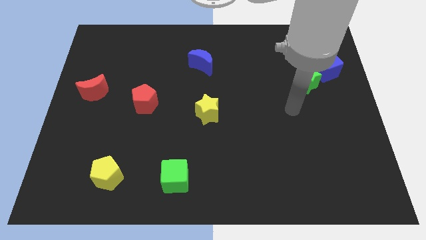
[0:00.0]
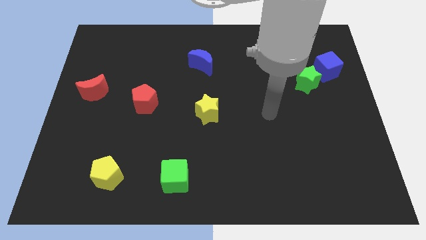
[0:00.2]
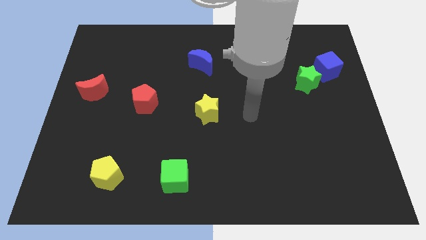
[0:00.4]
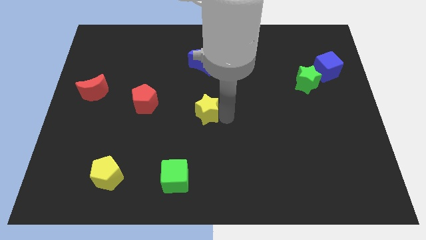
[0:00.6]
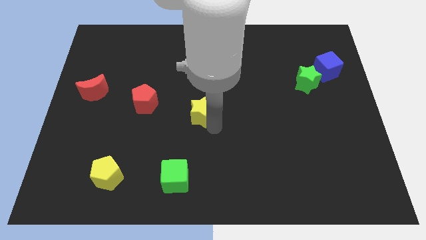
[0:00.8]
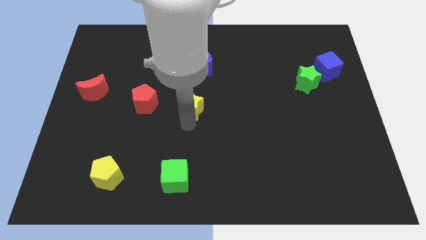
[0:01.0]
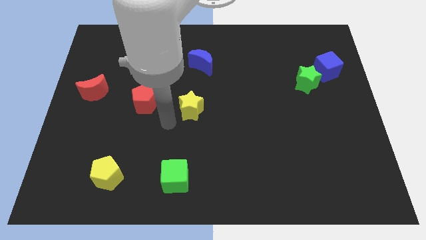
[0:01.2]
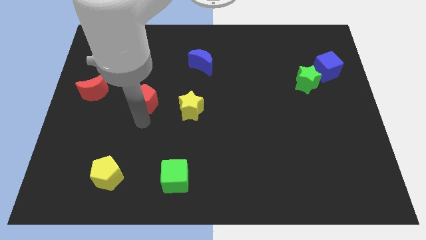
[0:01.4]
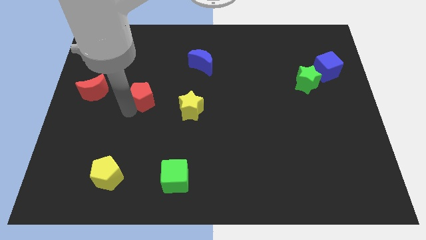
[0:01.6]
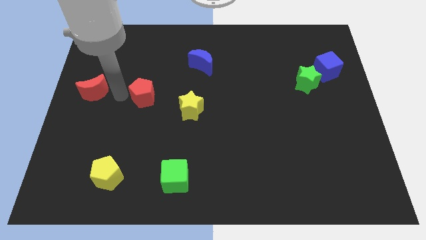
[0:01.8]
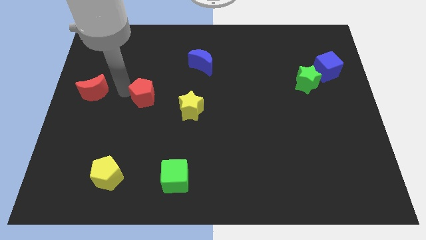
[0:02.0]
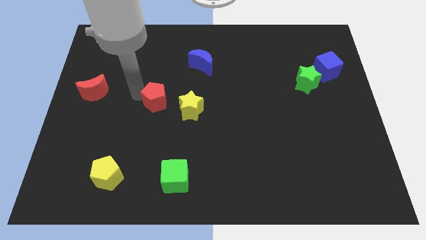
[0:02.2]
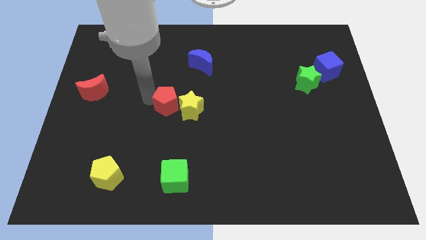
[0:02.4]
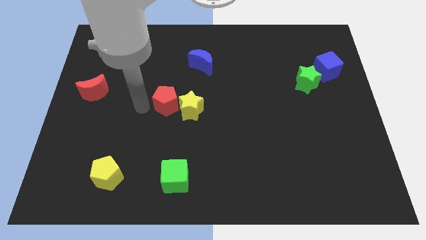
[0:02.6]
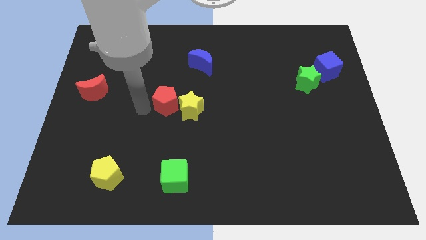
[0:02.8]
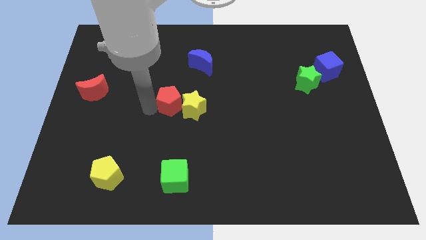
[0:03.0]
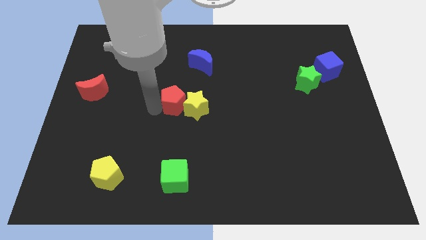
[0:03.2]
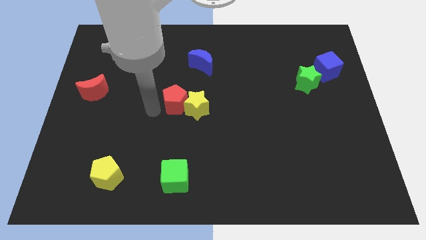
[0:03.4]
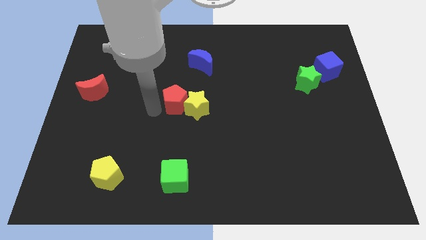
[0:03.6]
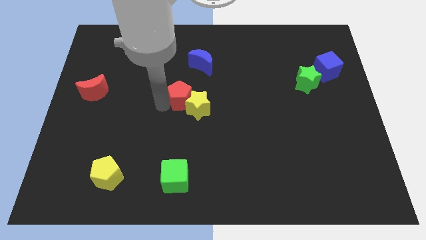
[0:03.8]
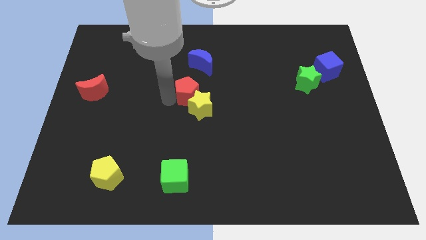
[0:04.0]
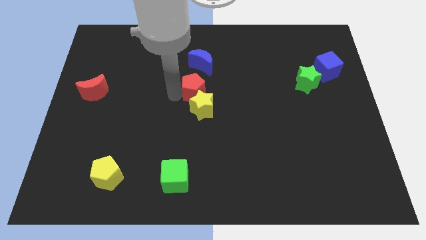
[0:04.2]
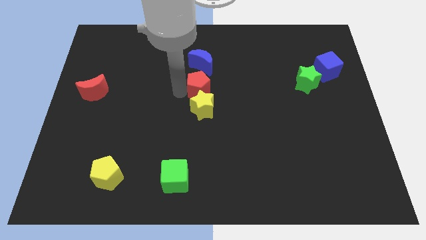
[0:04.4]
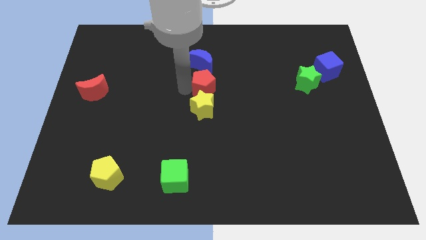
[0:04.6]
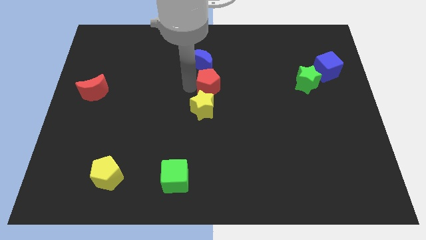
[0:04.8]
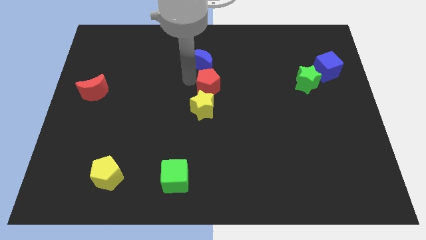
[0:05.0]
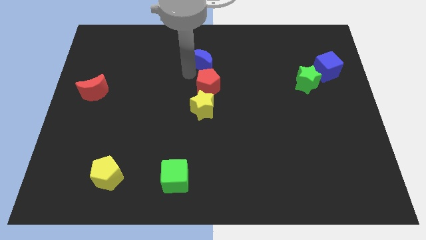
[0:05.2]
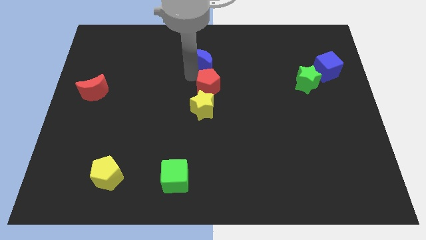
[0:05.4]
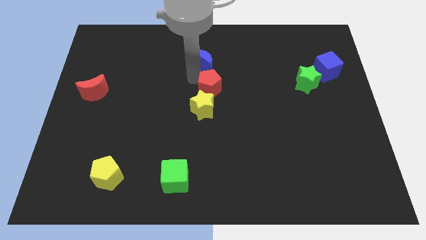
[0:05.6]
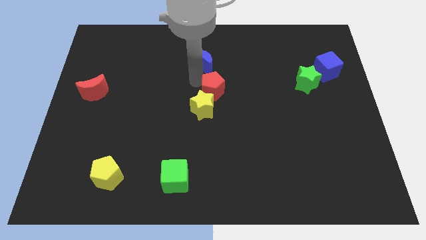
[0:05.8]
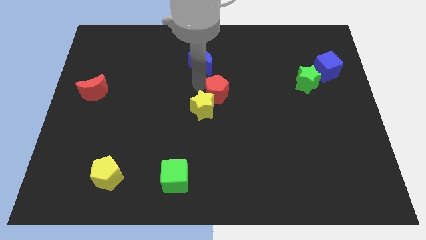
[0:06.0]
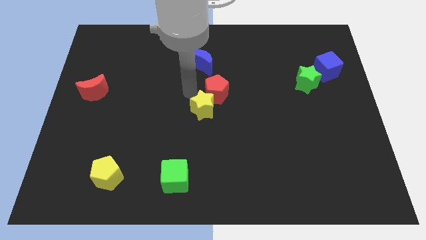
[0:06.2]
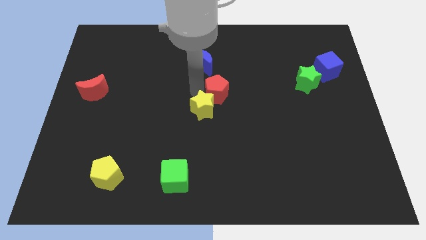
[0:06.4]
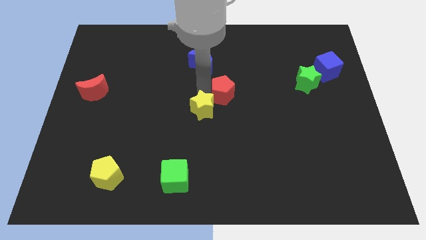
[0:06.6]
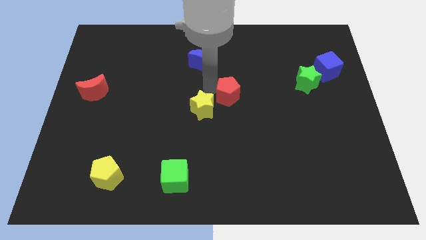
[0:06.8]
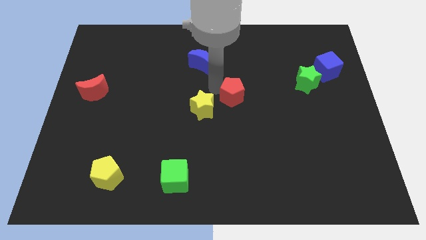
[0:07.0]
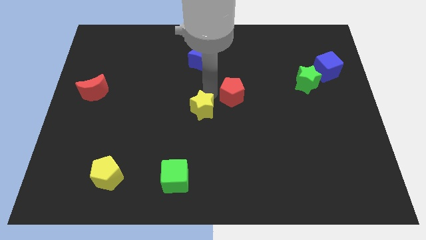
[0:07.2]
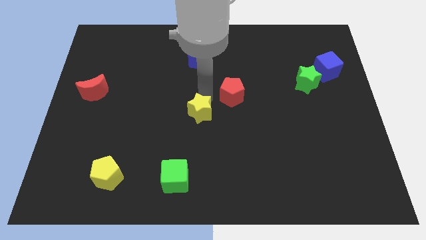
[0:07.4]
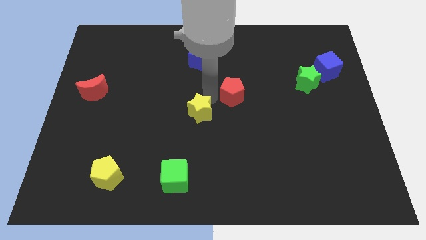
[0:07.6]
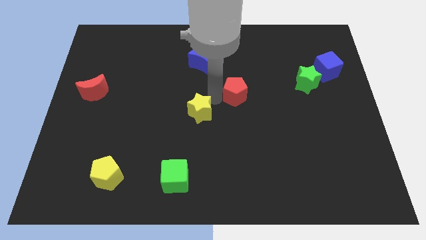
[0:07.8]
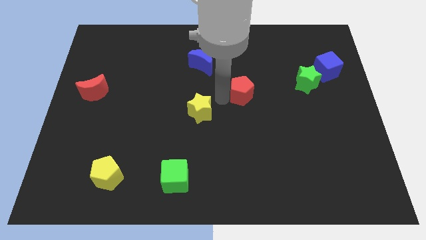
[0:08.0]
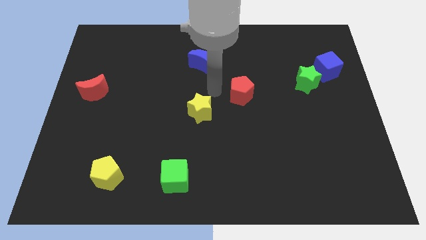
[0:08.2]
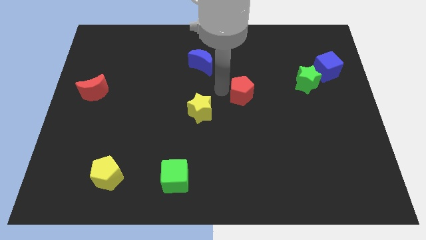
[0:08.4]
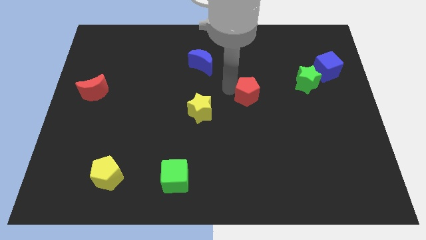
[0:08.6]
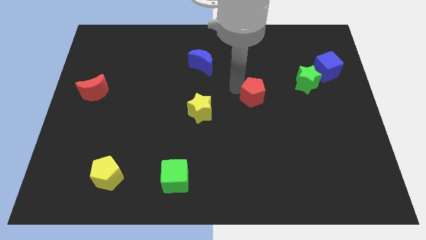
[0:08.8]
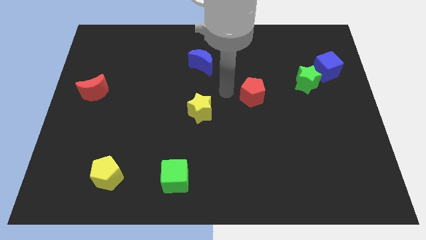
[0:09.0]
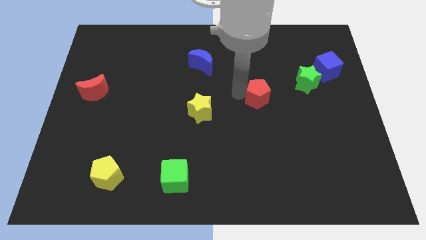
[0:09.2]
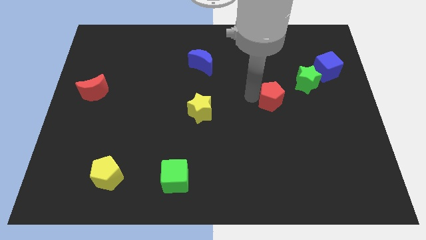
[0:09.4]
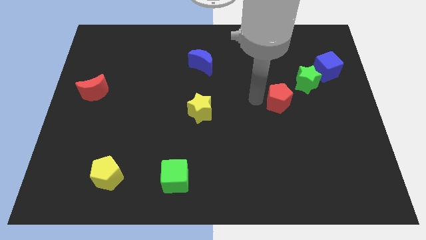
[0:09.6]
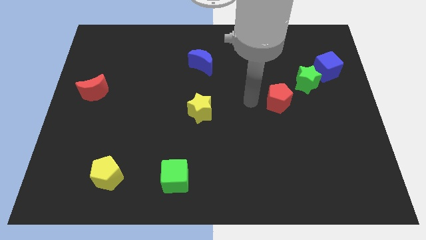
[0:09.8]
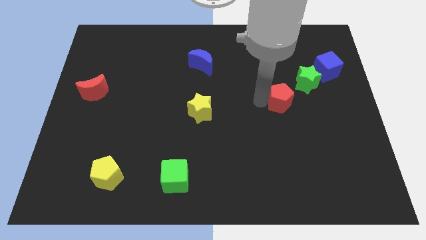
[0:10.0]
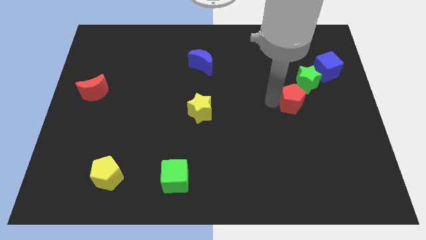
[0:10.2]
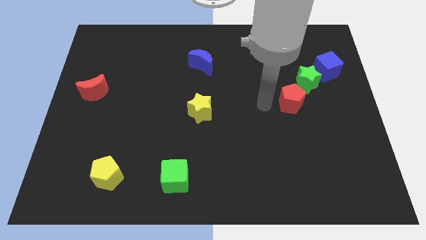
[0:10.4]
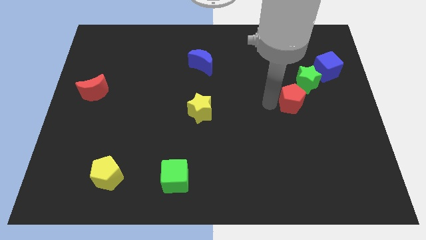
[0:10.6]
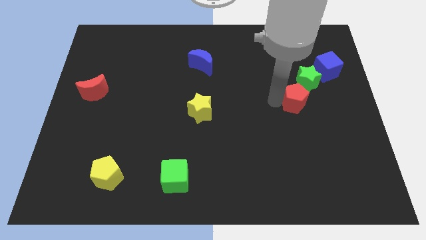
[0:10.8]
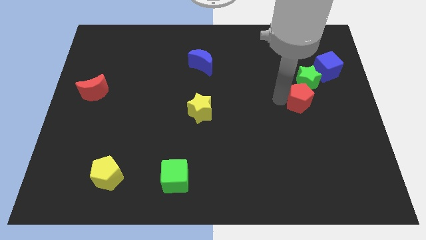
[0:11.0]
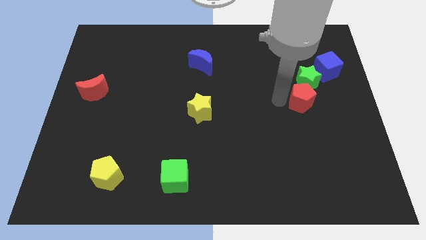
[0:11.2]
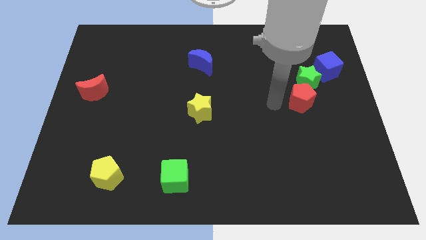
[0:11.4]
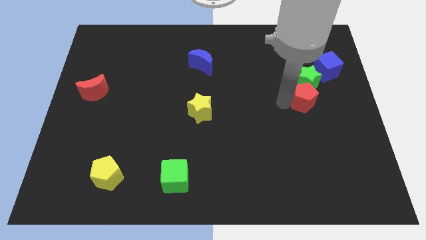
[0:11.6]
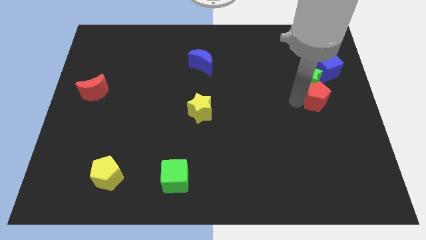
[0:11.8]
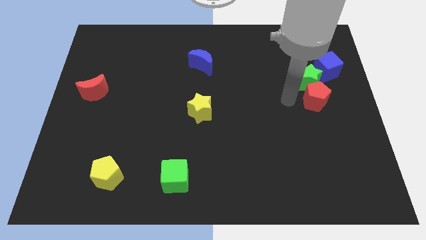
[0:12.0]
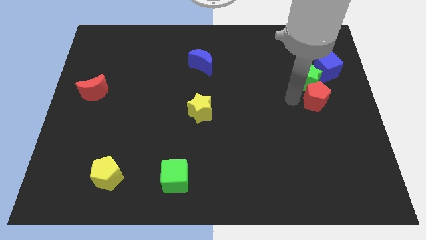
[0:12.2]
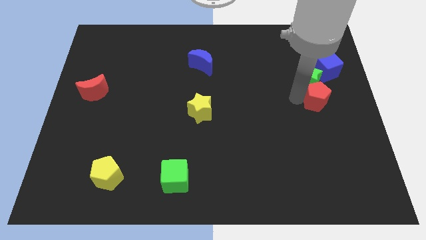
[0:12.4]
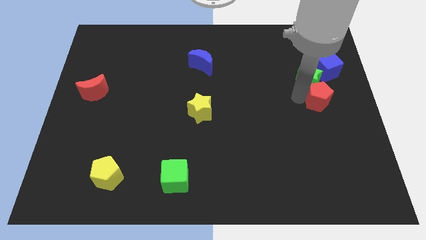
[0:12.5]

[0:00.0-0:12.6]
push the red pentagon to the right side
